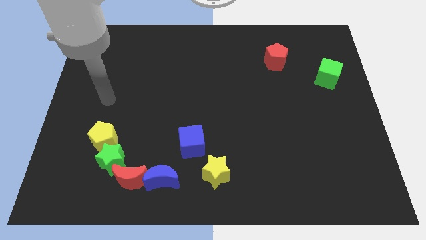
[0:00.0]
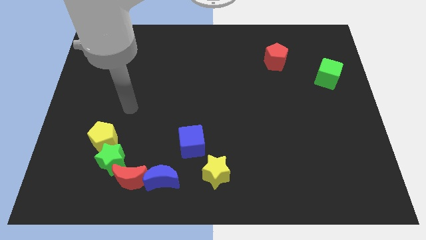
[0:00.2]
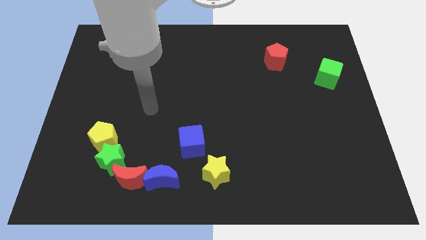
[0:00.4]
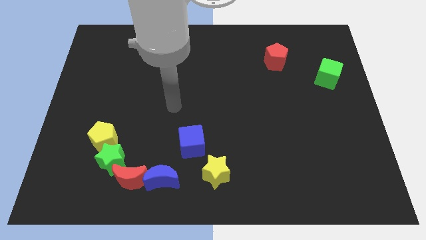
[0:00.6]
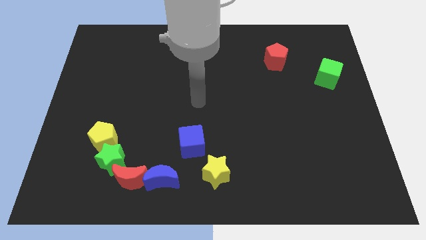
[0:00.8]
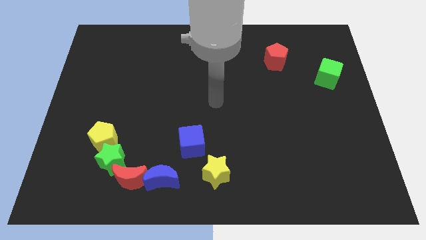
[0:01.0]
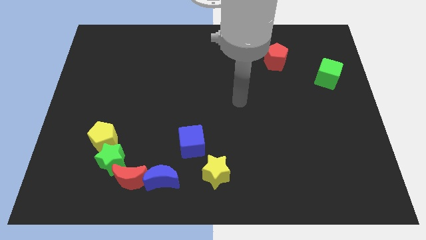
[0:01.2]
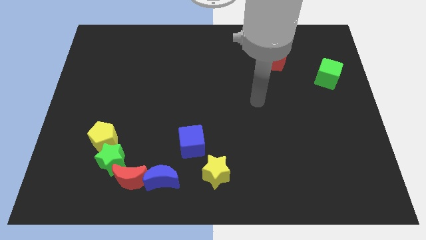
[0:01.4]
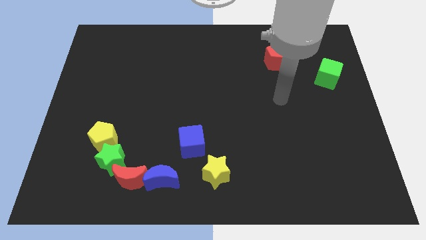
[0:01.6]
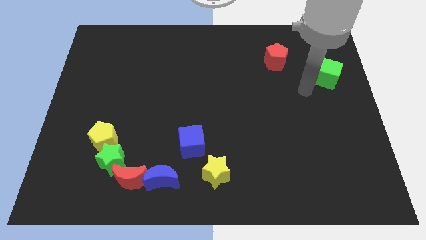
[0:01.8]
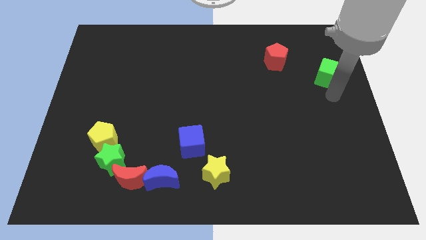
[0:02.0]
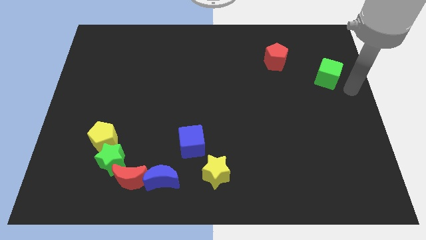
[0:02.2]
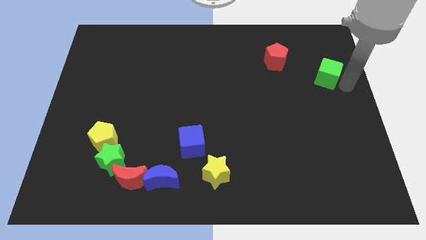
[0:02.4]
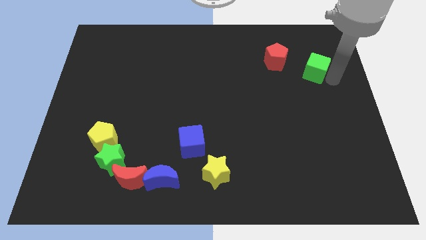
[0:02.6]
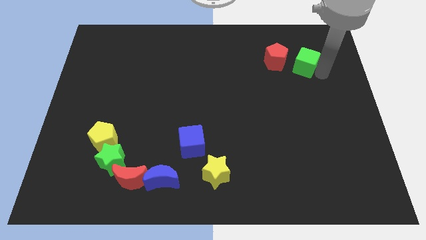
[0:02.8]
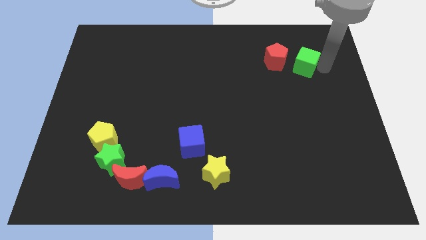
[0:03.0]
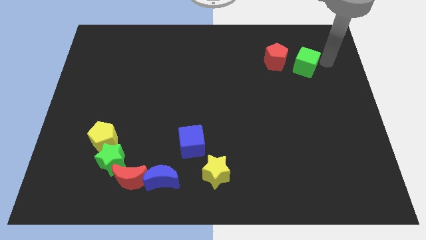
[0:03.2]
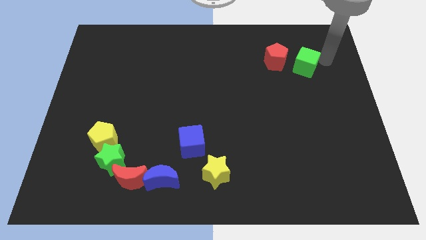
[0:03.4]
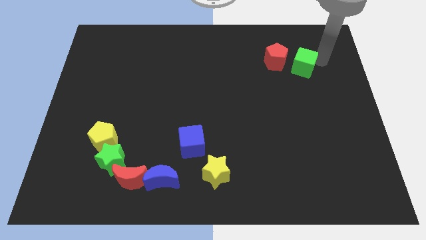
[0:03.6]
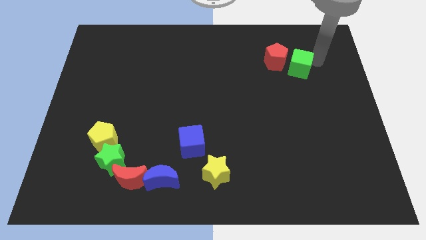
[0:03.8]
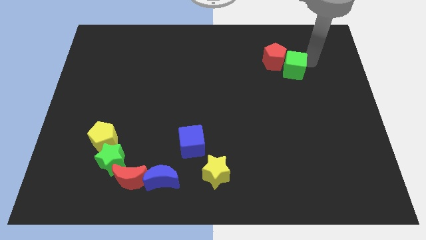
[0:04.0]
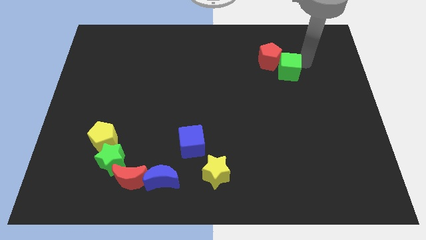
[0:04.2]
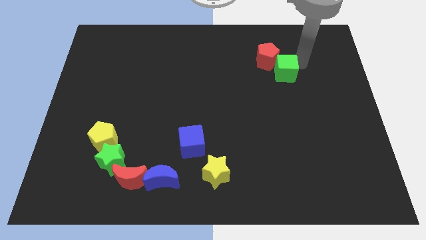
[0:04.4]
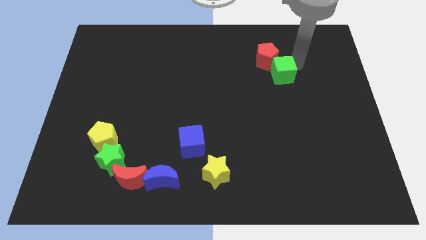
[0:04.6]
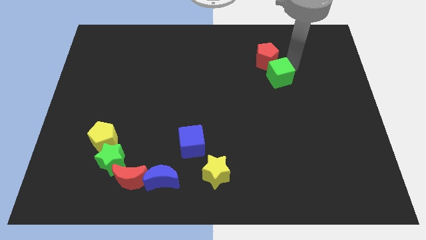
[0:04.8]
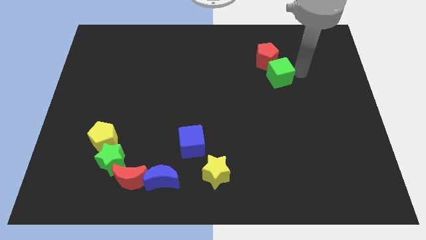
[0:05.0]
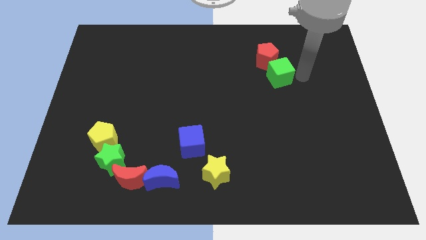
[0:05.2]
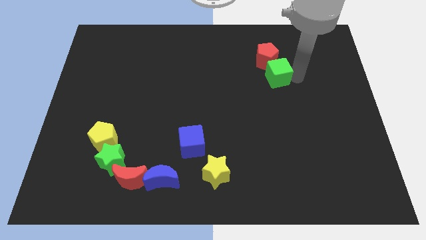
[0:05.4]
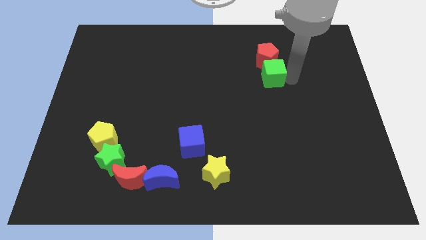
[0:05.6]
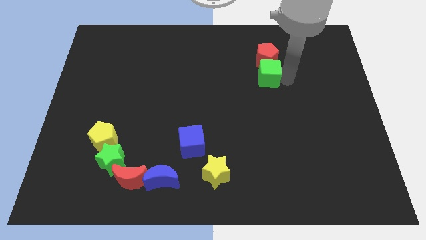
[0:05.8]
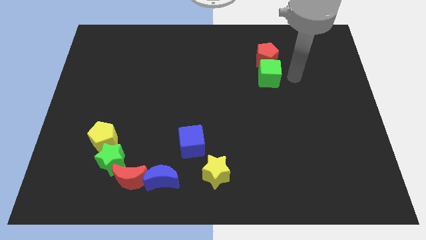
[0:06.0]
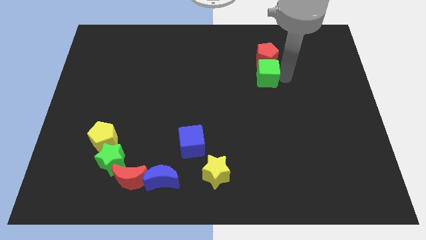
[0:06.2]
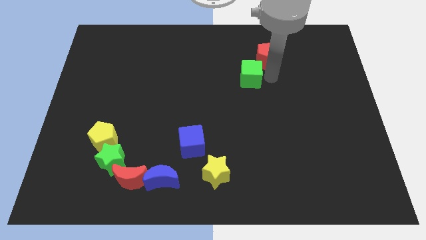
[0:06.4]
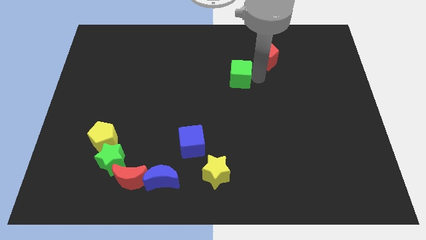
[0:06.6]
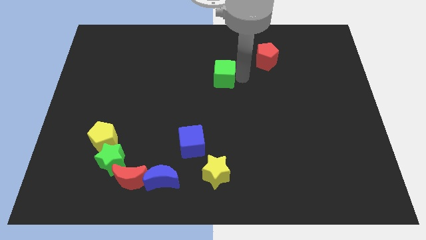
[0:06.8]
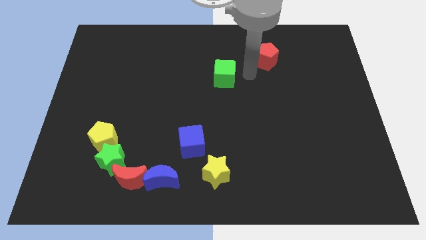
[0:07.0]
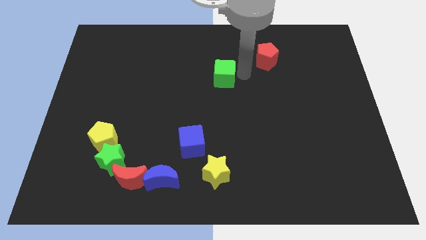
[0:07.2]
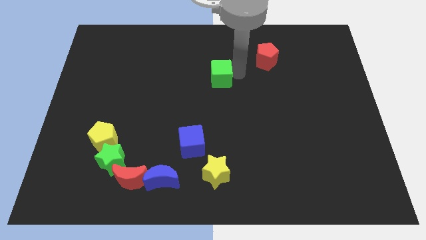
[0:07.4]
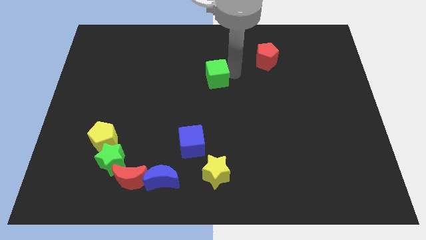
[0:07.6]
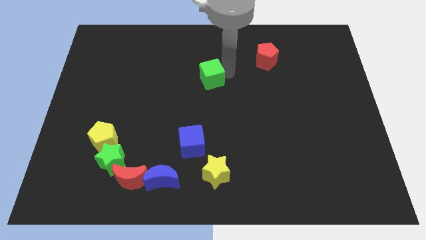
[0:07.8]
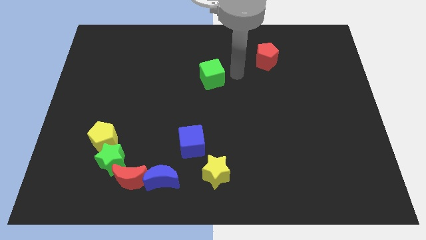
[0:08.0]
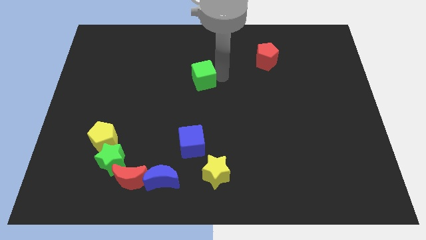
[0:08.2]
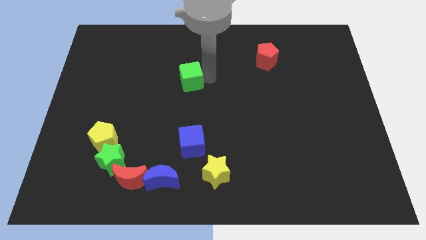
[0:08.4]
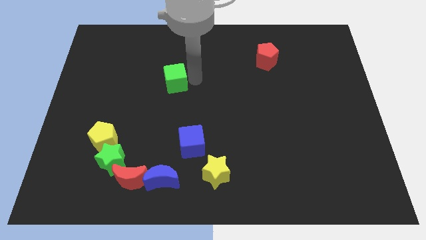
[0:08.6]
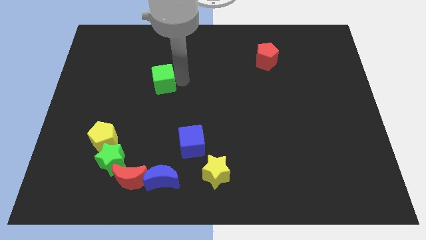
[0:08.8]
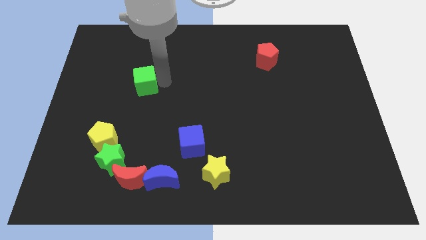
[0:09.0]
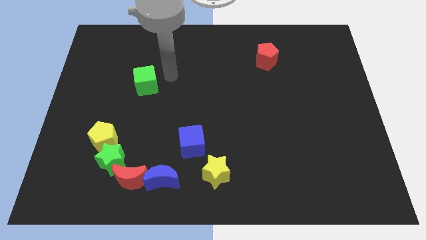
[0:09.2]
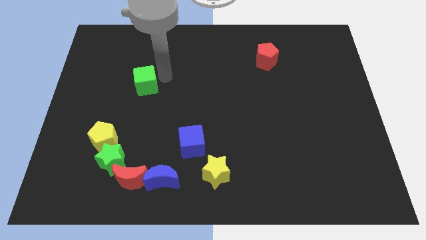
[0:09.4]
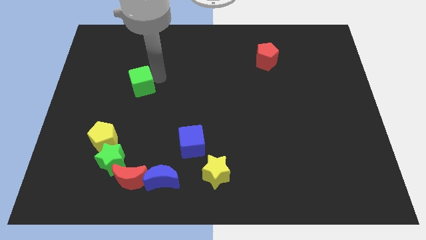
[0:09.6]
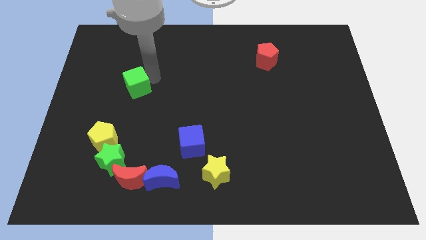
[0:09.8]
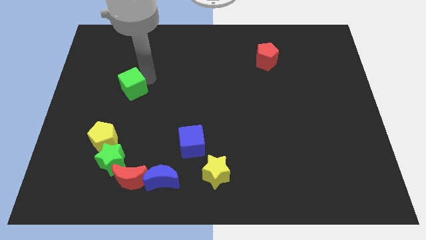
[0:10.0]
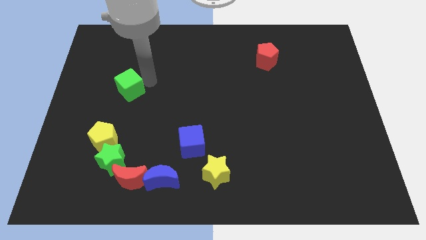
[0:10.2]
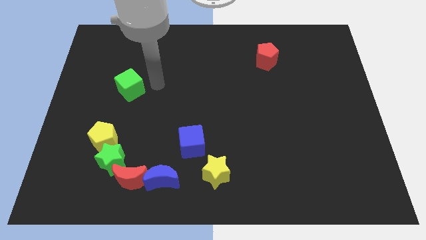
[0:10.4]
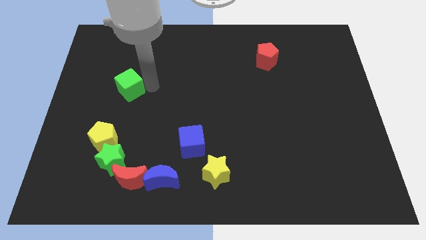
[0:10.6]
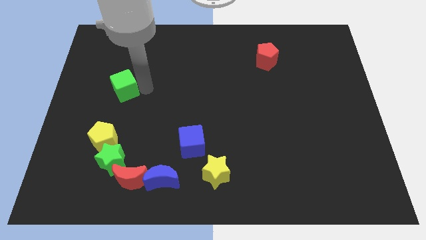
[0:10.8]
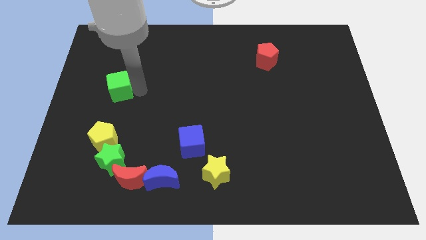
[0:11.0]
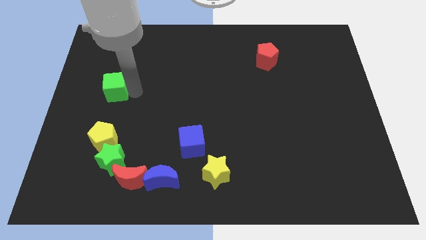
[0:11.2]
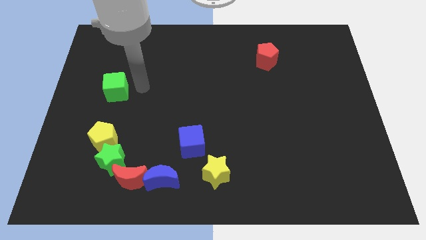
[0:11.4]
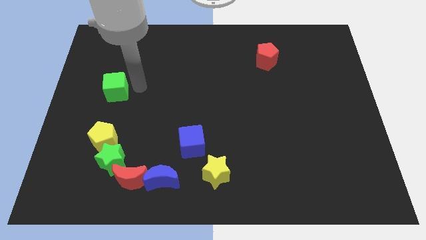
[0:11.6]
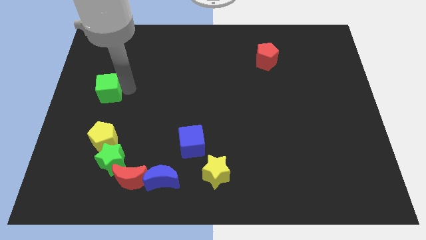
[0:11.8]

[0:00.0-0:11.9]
move the green cube to the center left

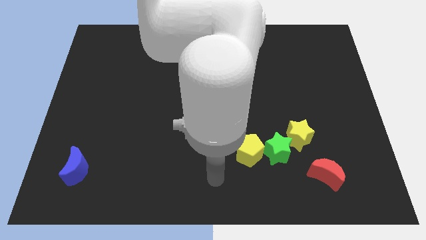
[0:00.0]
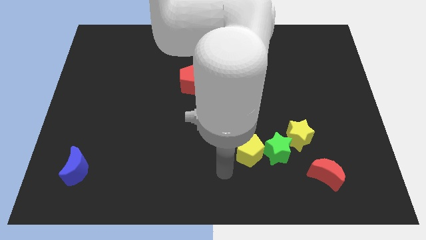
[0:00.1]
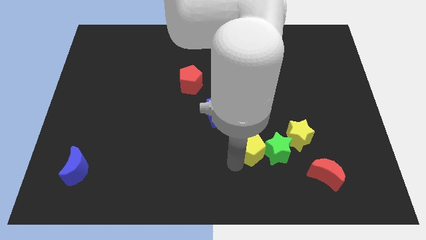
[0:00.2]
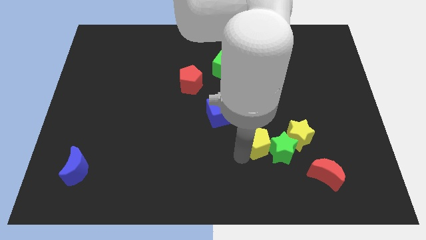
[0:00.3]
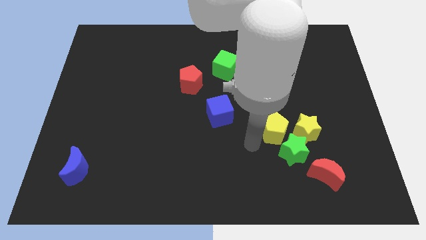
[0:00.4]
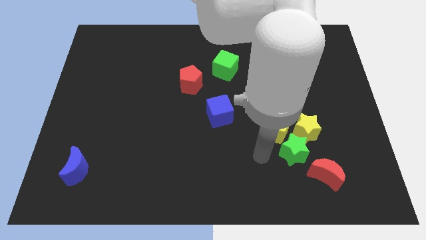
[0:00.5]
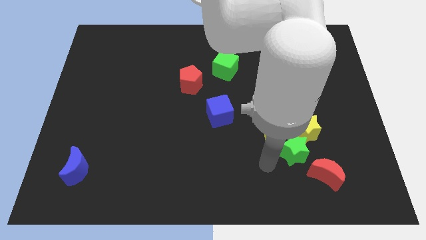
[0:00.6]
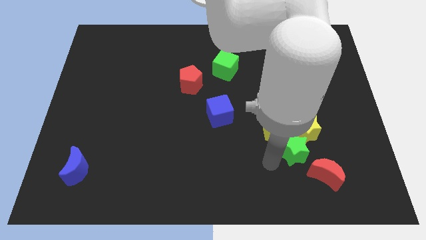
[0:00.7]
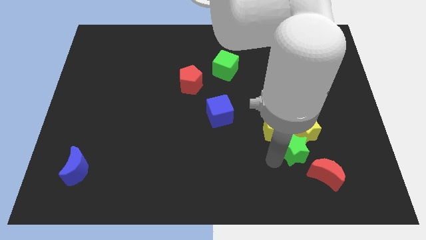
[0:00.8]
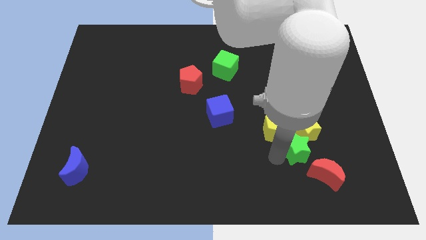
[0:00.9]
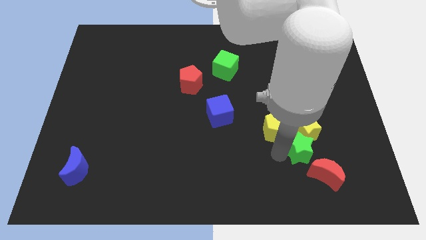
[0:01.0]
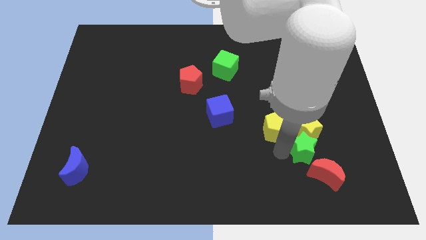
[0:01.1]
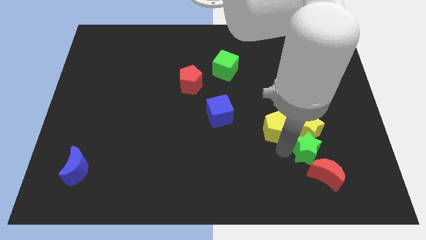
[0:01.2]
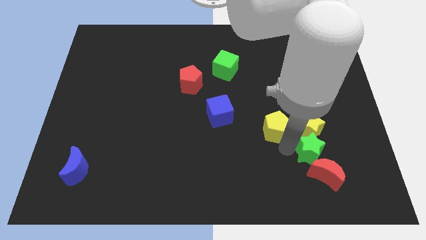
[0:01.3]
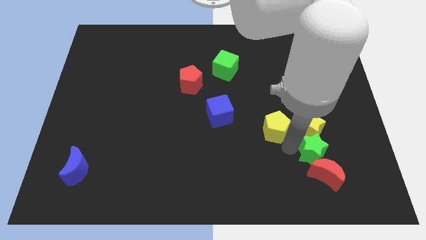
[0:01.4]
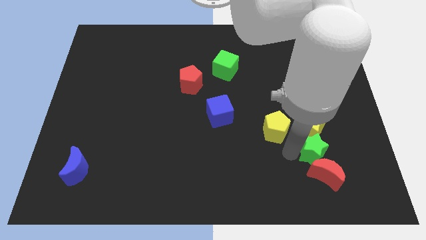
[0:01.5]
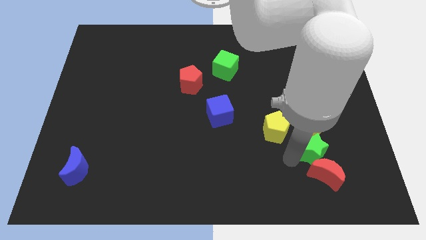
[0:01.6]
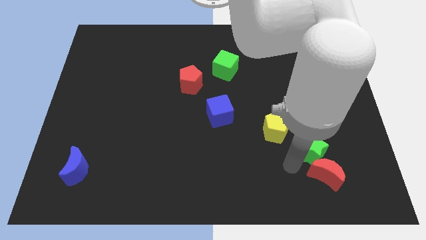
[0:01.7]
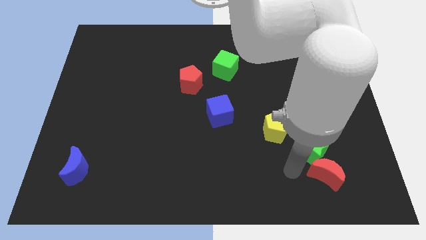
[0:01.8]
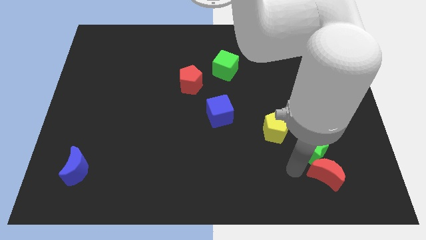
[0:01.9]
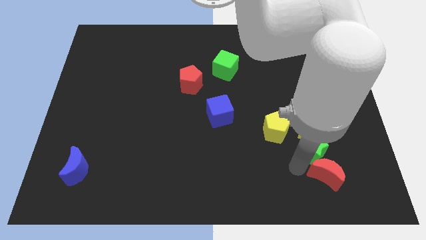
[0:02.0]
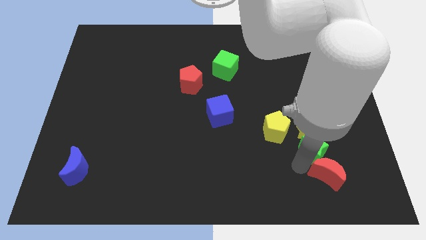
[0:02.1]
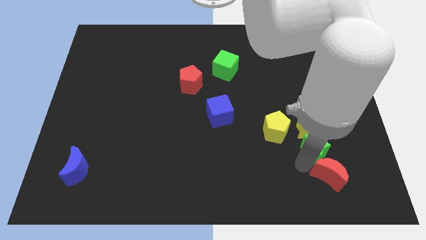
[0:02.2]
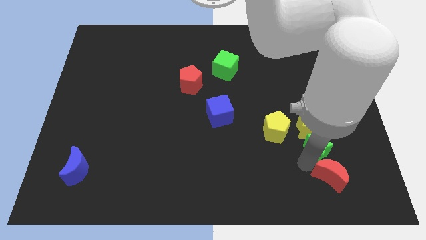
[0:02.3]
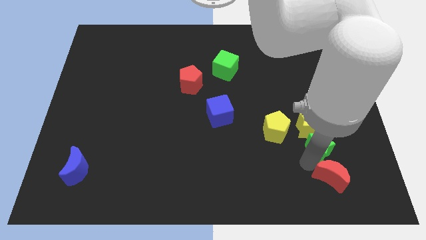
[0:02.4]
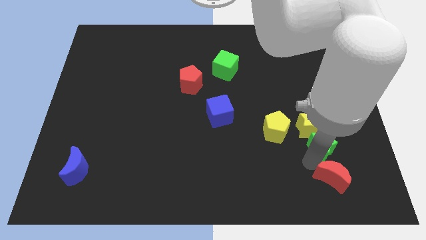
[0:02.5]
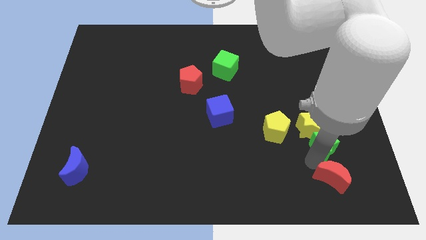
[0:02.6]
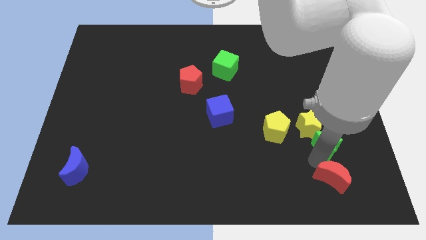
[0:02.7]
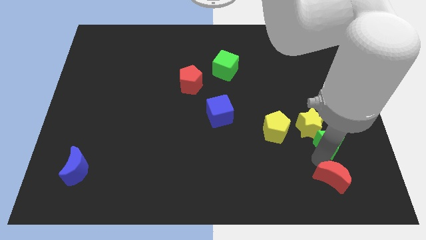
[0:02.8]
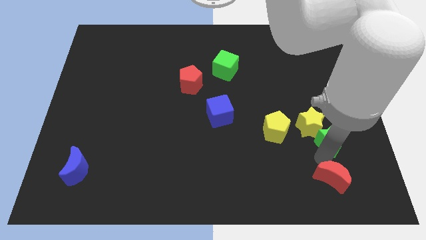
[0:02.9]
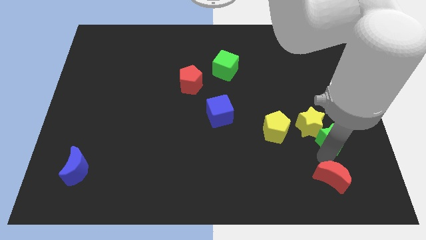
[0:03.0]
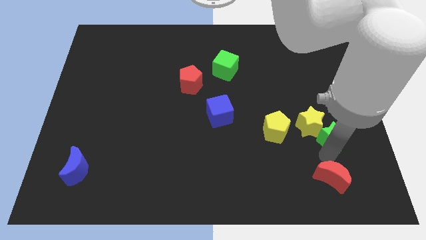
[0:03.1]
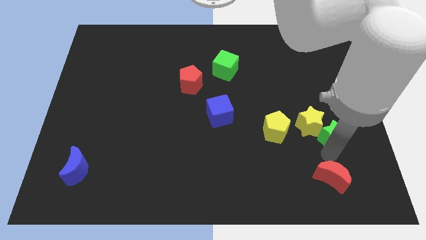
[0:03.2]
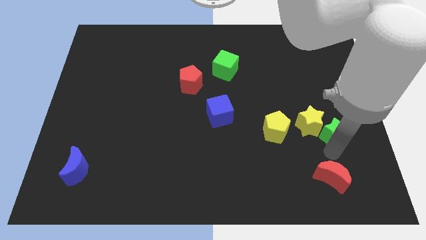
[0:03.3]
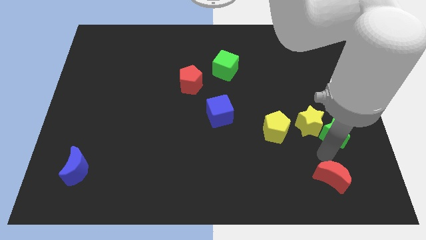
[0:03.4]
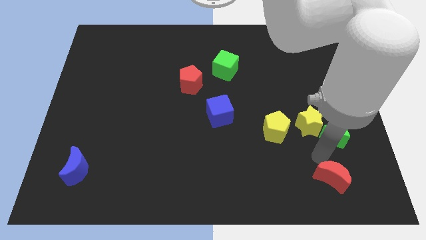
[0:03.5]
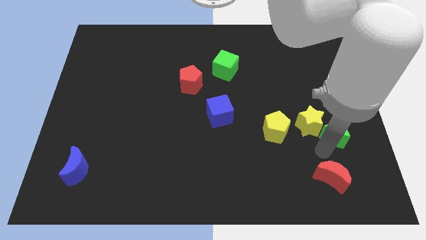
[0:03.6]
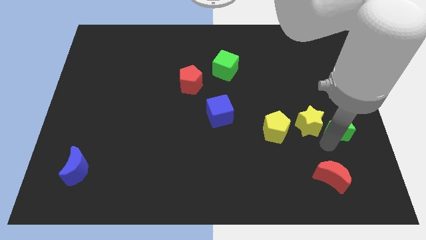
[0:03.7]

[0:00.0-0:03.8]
put the green star to the center right
